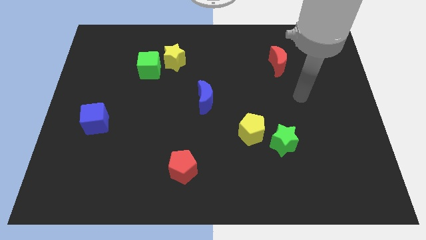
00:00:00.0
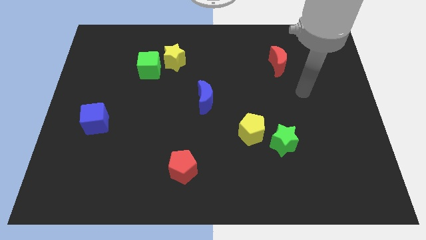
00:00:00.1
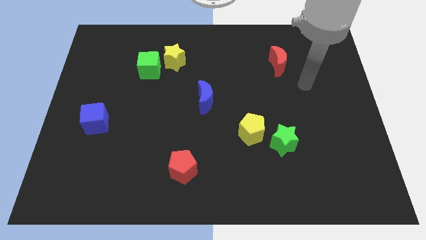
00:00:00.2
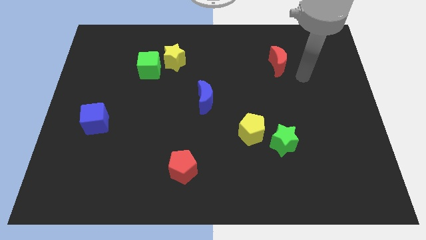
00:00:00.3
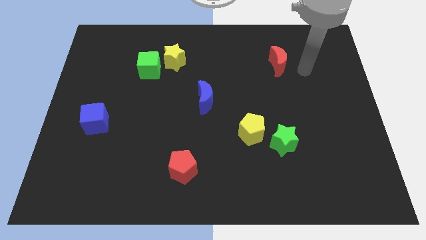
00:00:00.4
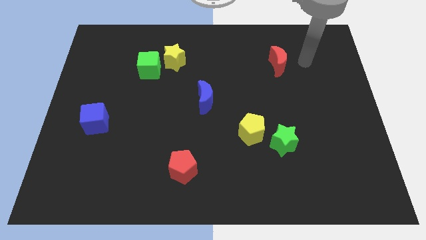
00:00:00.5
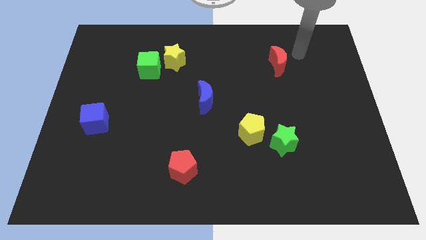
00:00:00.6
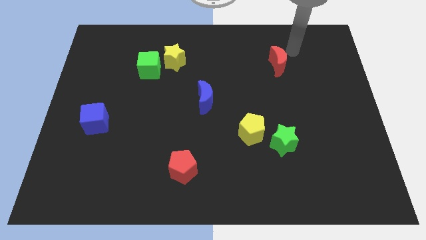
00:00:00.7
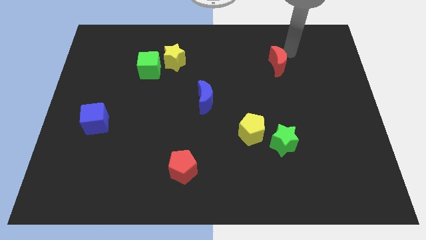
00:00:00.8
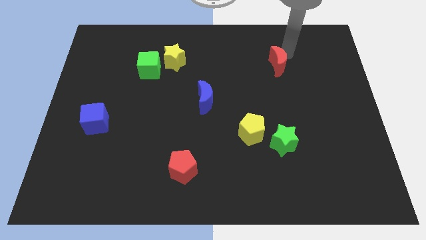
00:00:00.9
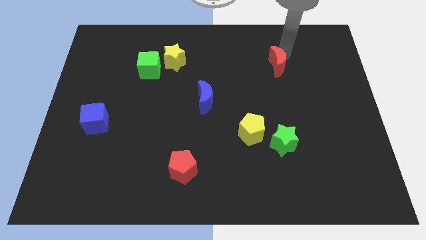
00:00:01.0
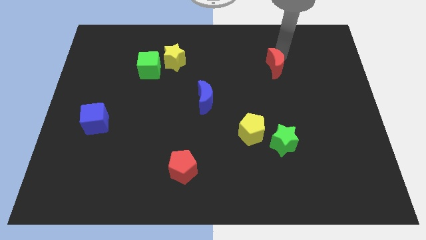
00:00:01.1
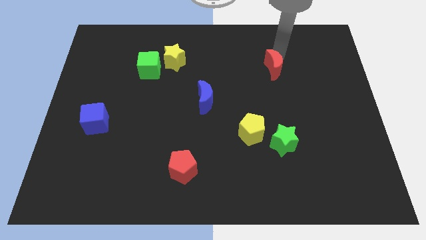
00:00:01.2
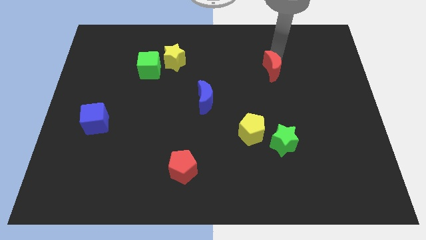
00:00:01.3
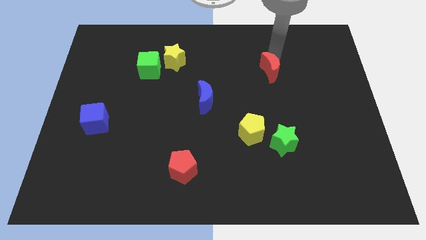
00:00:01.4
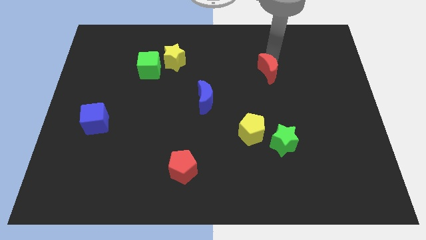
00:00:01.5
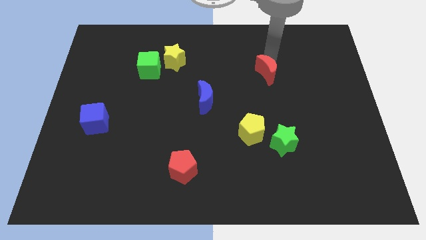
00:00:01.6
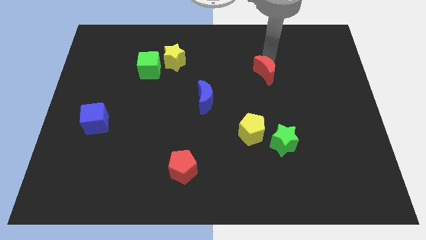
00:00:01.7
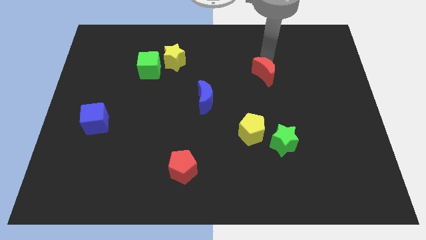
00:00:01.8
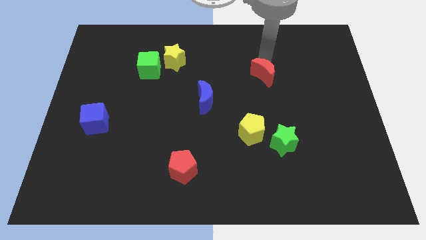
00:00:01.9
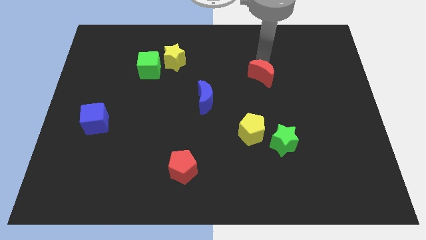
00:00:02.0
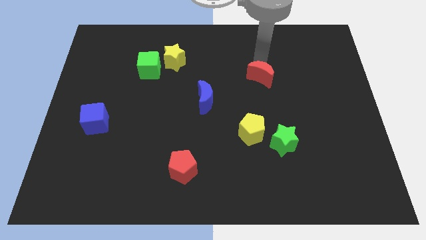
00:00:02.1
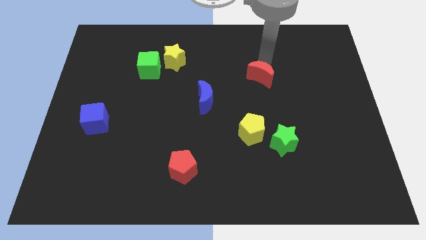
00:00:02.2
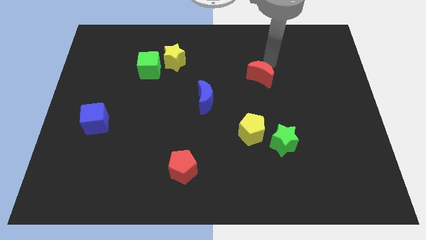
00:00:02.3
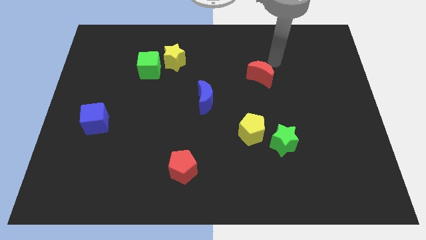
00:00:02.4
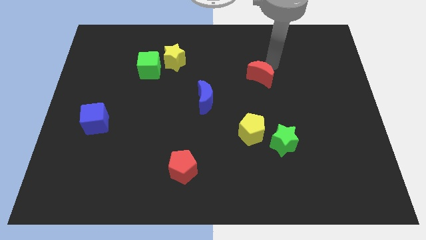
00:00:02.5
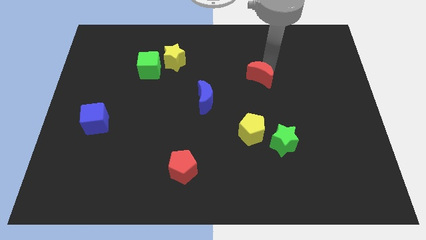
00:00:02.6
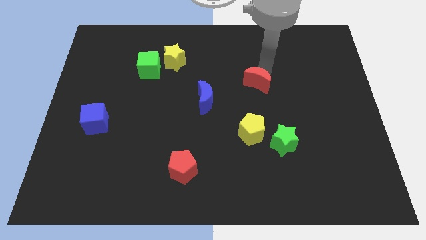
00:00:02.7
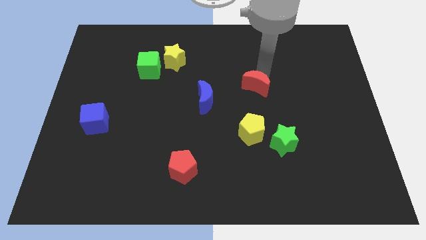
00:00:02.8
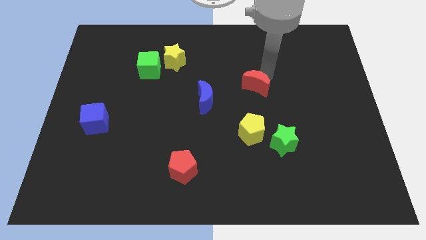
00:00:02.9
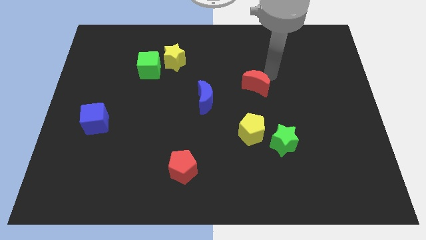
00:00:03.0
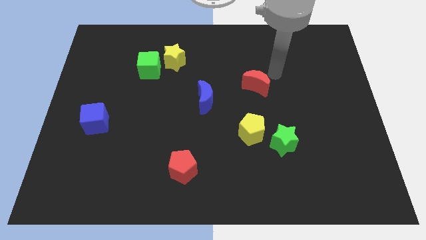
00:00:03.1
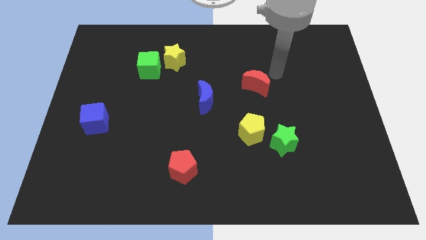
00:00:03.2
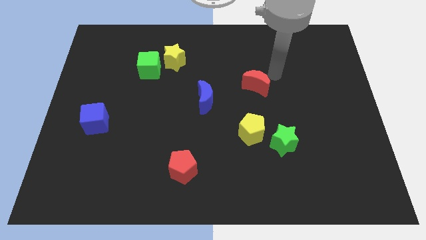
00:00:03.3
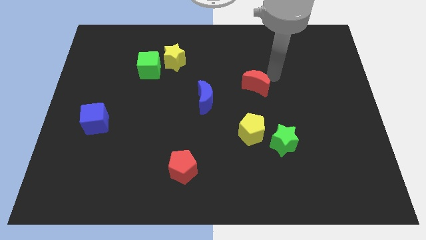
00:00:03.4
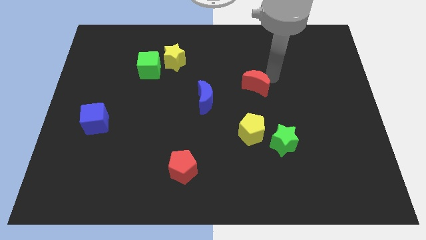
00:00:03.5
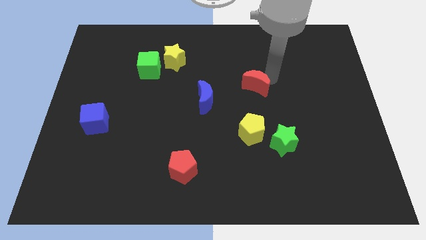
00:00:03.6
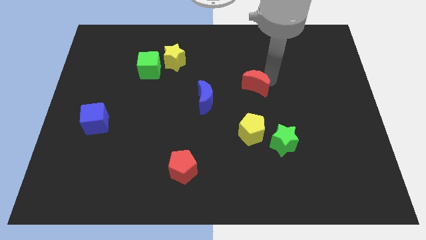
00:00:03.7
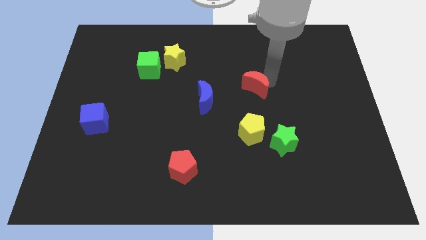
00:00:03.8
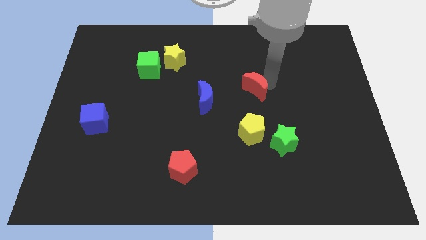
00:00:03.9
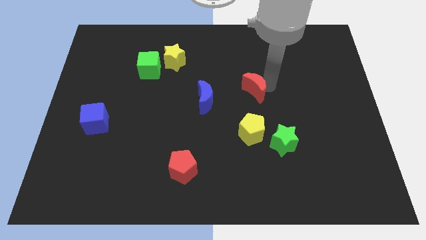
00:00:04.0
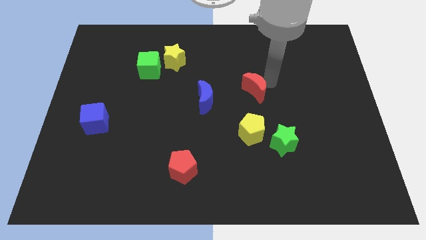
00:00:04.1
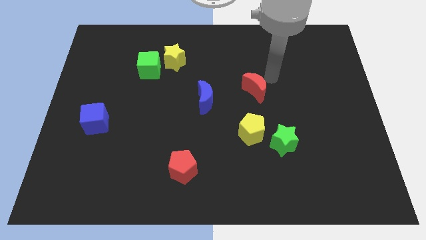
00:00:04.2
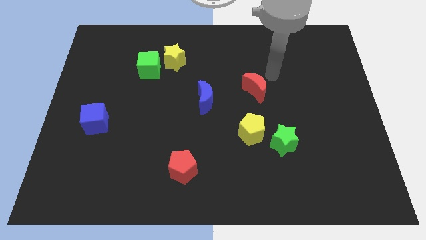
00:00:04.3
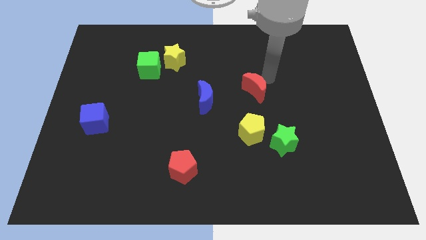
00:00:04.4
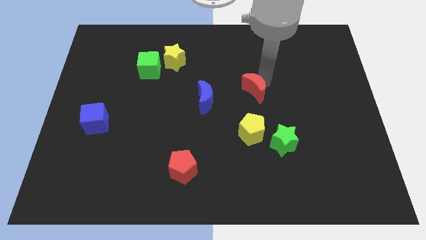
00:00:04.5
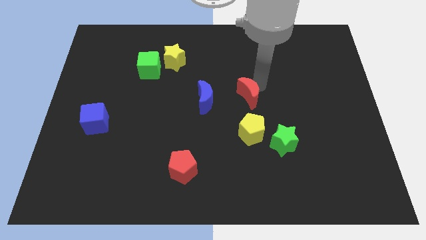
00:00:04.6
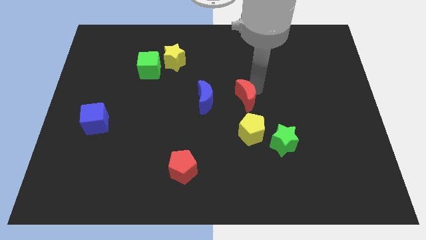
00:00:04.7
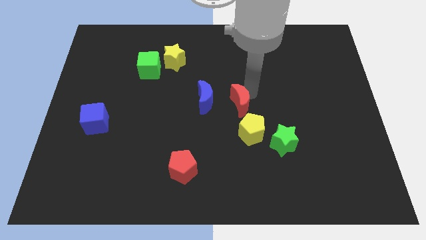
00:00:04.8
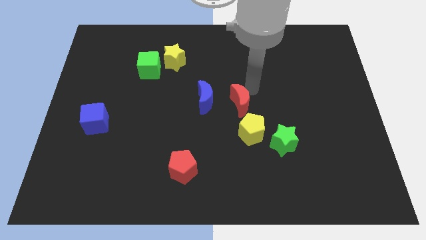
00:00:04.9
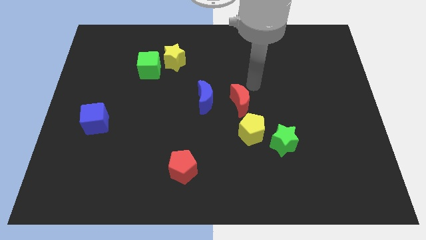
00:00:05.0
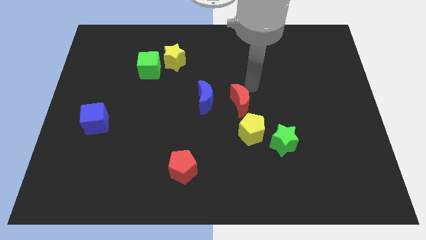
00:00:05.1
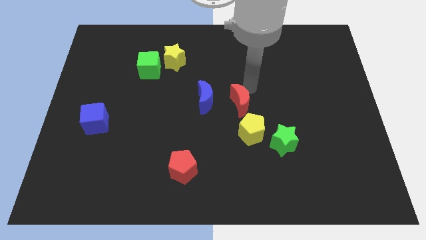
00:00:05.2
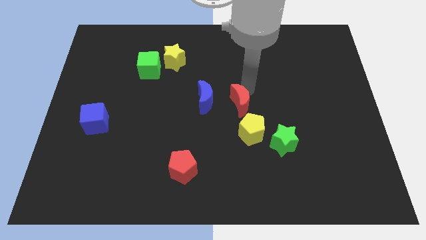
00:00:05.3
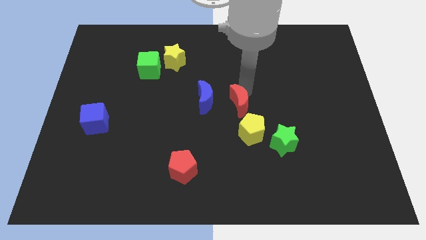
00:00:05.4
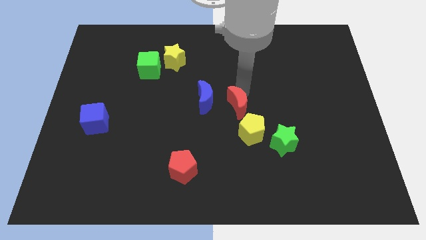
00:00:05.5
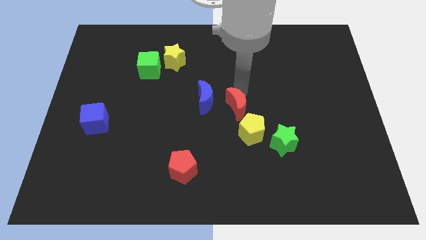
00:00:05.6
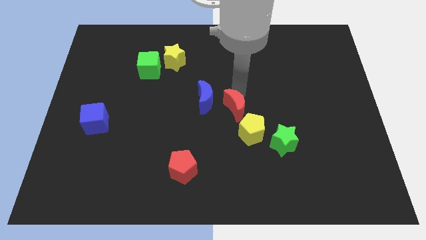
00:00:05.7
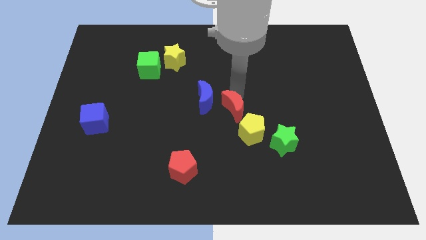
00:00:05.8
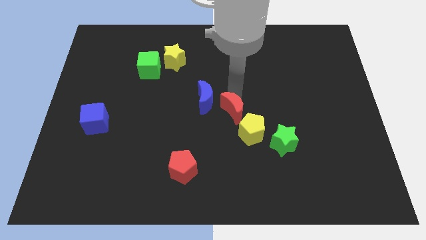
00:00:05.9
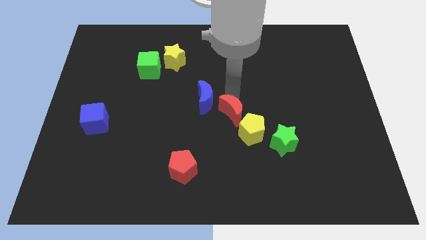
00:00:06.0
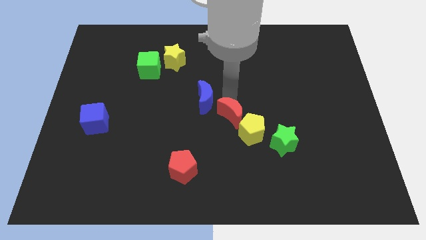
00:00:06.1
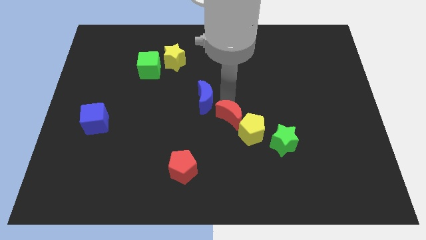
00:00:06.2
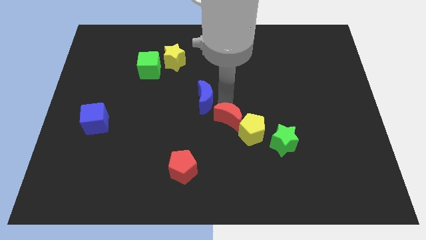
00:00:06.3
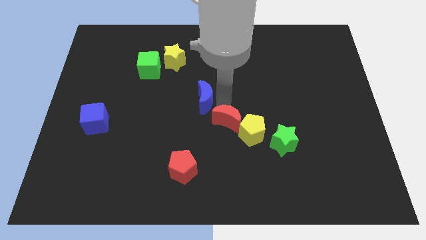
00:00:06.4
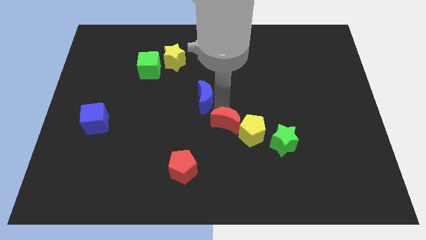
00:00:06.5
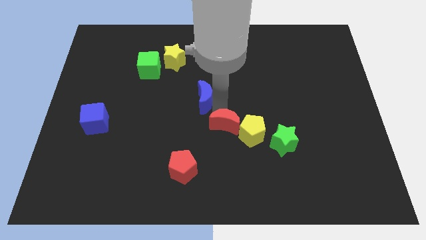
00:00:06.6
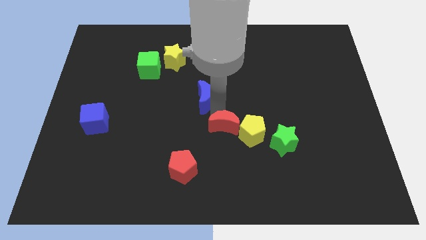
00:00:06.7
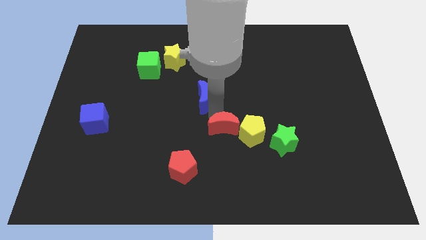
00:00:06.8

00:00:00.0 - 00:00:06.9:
slide the red moon left of the green star
